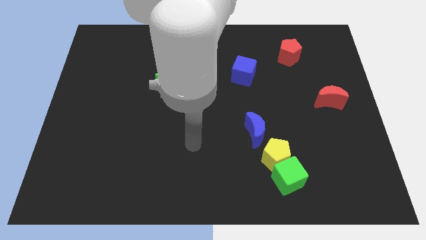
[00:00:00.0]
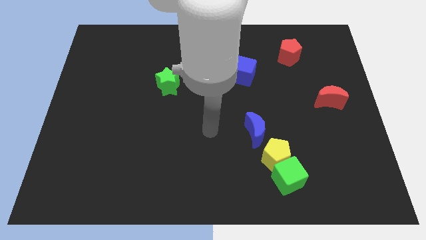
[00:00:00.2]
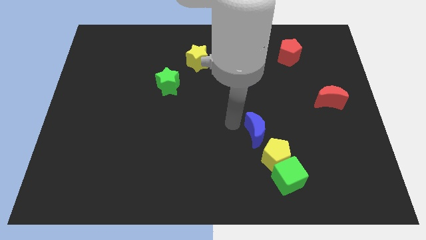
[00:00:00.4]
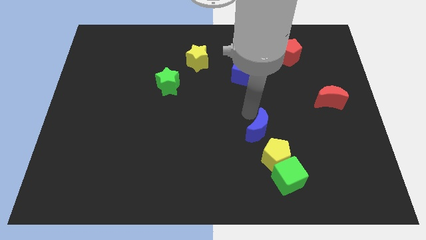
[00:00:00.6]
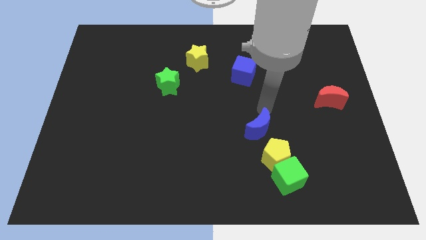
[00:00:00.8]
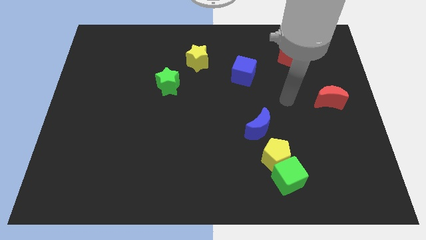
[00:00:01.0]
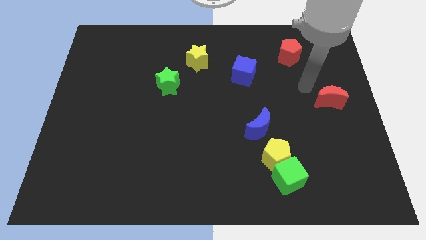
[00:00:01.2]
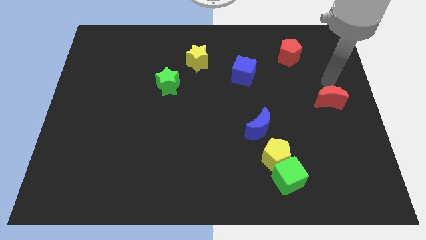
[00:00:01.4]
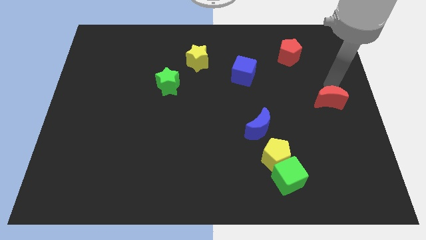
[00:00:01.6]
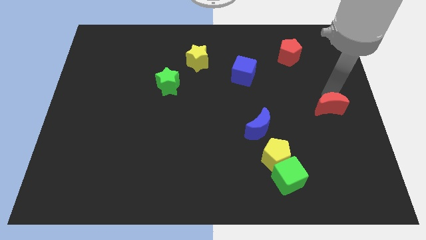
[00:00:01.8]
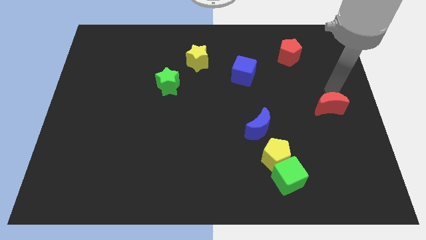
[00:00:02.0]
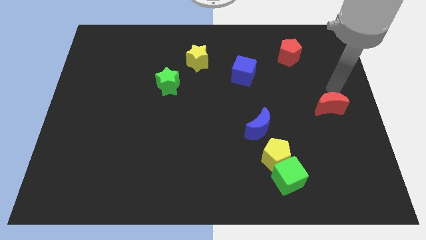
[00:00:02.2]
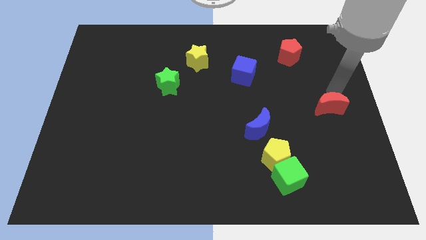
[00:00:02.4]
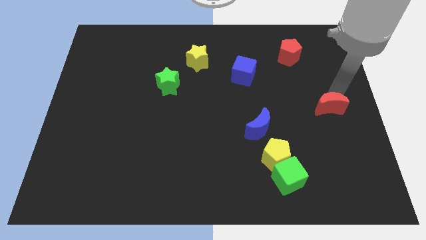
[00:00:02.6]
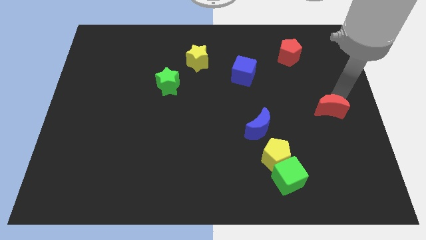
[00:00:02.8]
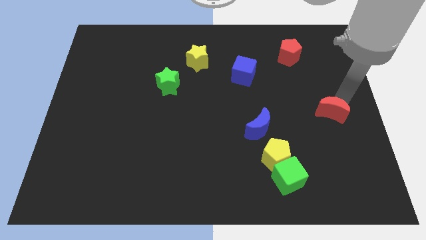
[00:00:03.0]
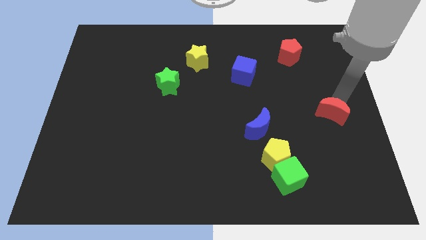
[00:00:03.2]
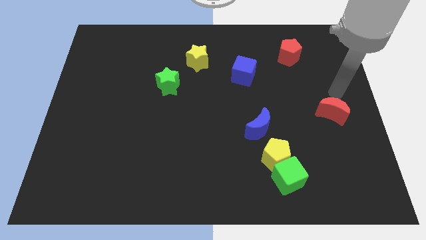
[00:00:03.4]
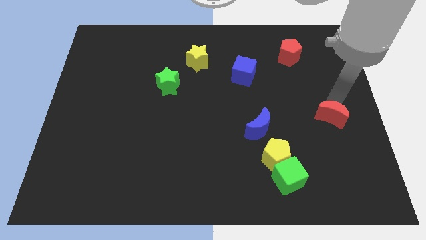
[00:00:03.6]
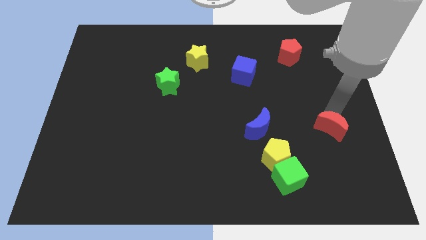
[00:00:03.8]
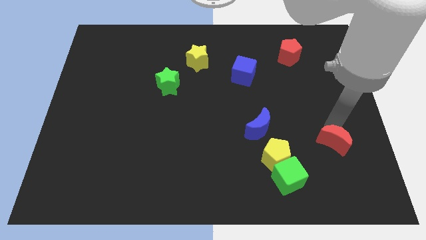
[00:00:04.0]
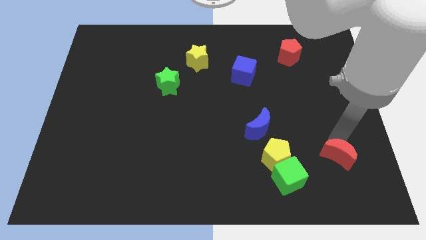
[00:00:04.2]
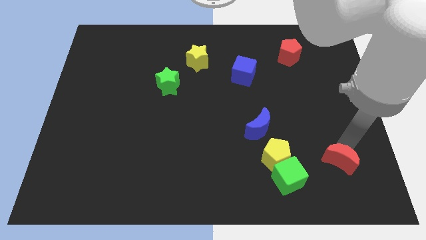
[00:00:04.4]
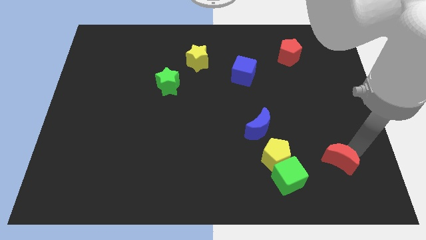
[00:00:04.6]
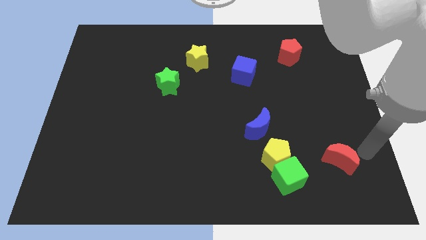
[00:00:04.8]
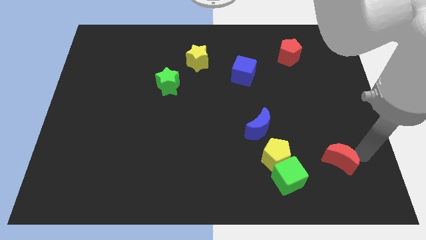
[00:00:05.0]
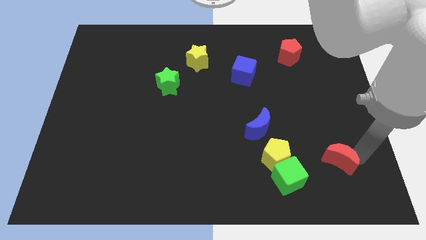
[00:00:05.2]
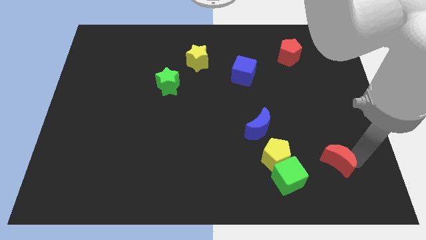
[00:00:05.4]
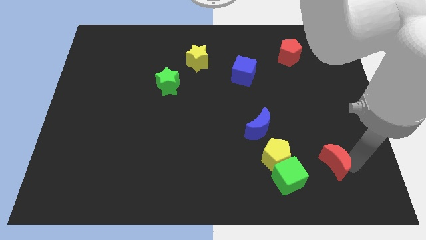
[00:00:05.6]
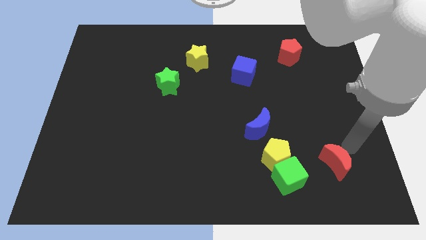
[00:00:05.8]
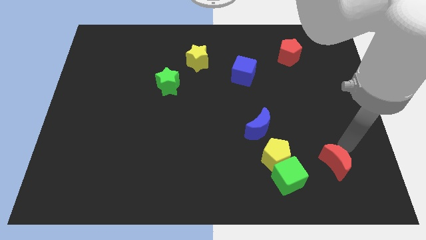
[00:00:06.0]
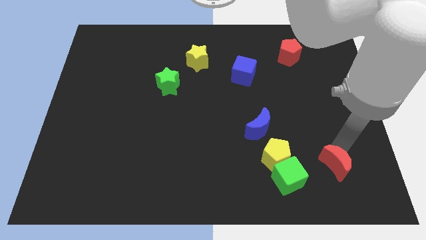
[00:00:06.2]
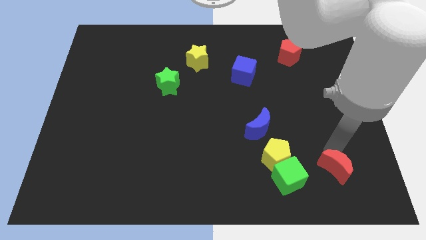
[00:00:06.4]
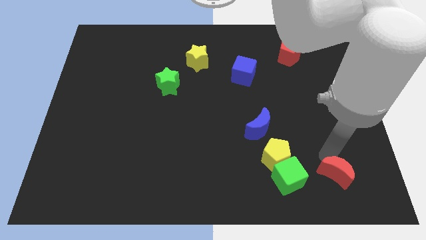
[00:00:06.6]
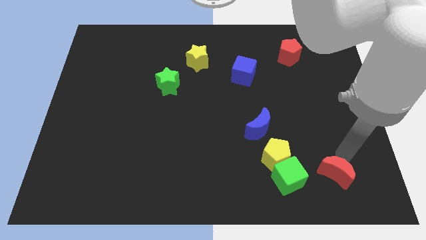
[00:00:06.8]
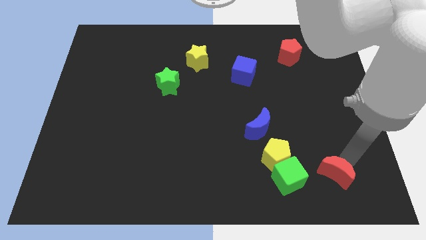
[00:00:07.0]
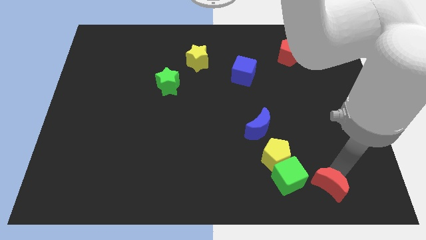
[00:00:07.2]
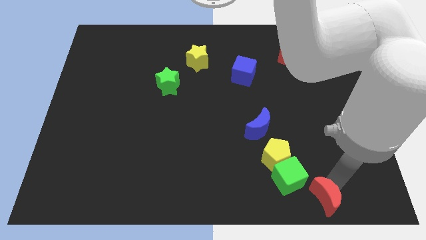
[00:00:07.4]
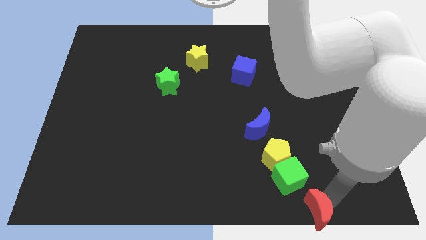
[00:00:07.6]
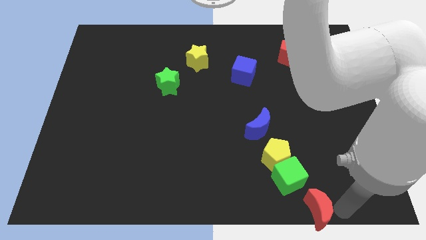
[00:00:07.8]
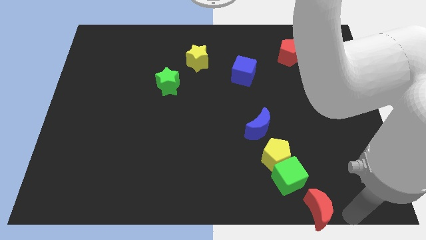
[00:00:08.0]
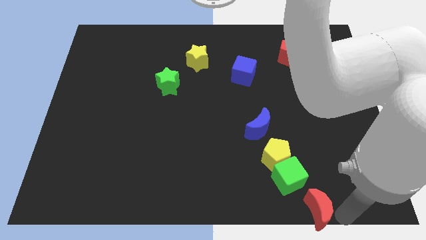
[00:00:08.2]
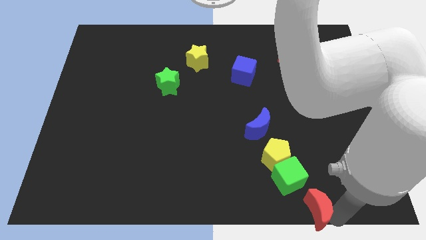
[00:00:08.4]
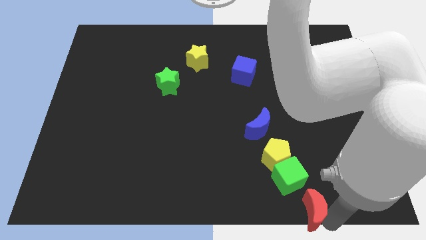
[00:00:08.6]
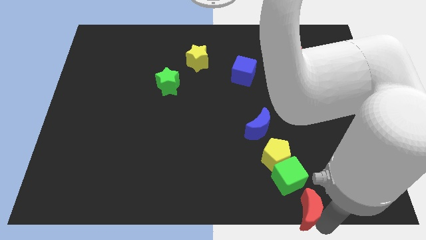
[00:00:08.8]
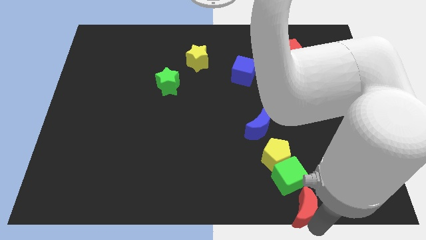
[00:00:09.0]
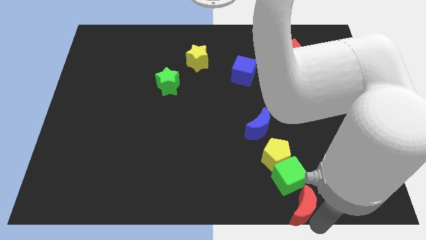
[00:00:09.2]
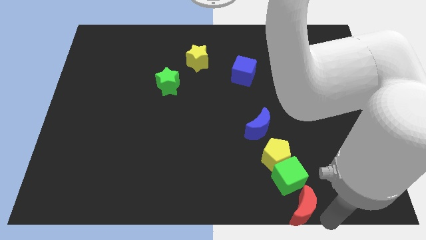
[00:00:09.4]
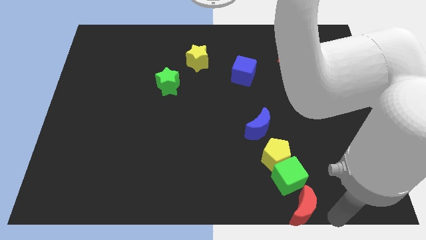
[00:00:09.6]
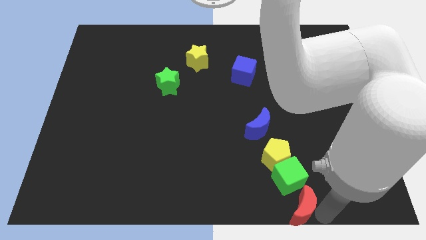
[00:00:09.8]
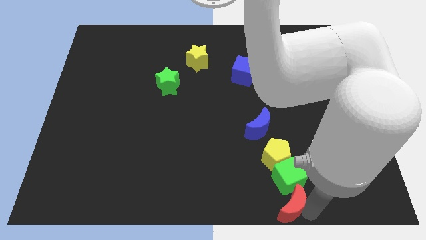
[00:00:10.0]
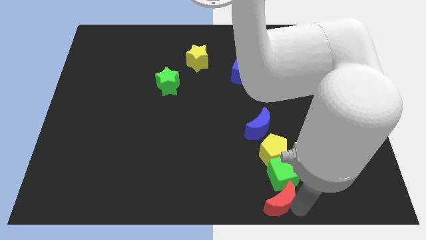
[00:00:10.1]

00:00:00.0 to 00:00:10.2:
move the red moon to the bottom side

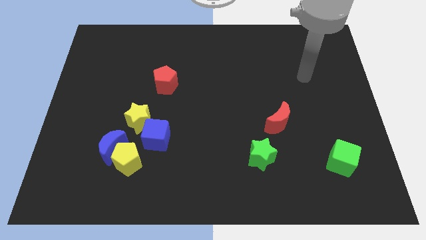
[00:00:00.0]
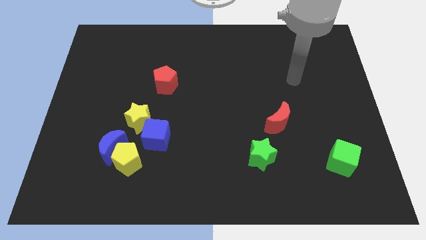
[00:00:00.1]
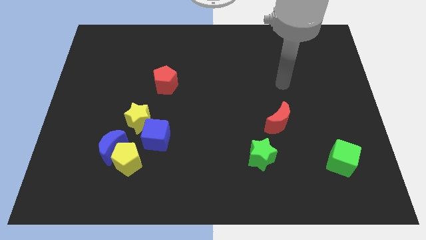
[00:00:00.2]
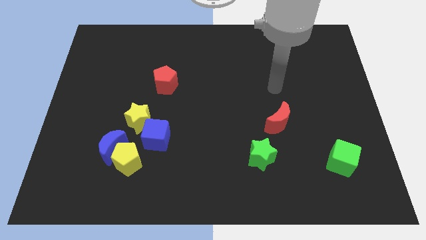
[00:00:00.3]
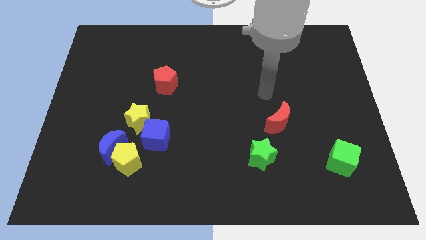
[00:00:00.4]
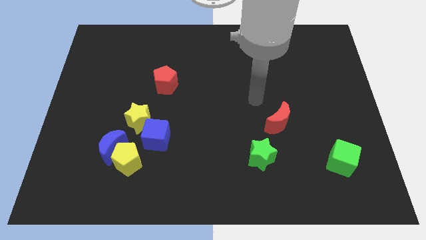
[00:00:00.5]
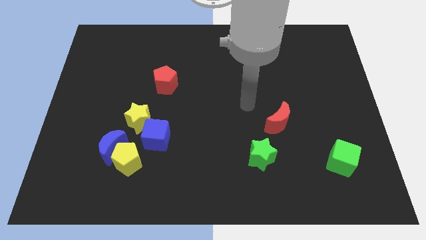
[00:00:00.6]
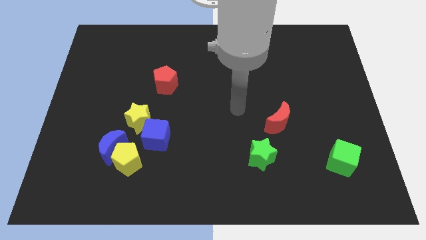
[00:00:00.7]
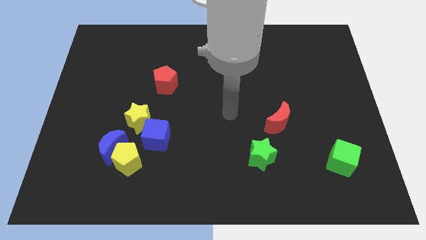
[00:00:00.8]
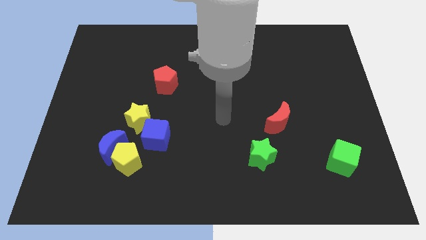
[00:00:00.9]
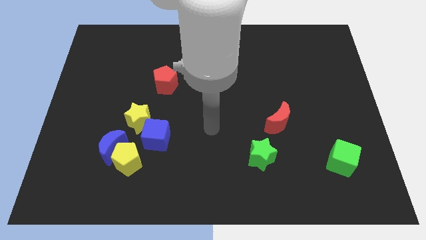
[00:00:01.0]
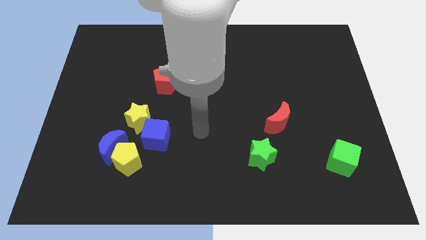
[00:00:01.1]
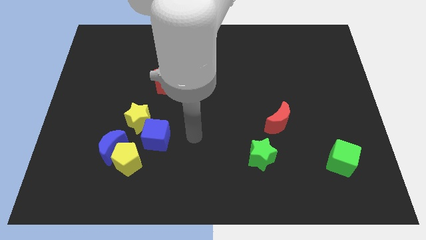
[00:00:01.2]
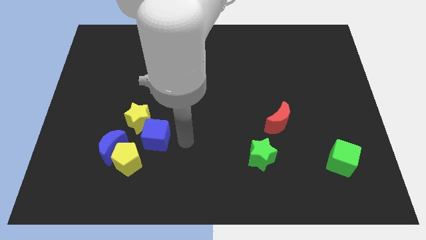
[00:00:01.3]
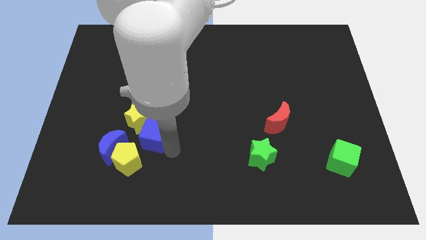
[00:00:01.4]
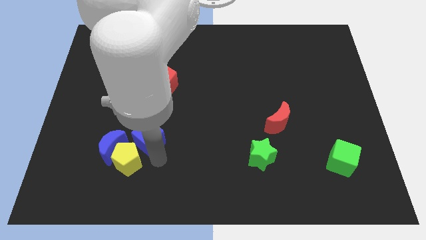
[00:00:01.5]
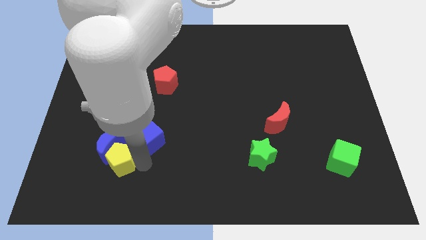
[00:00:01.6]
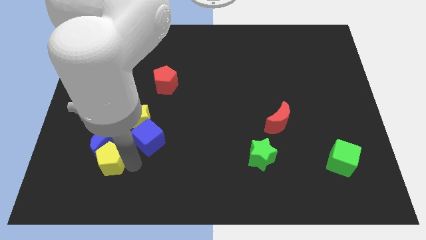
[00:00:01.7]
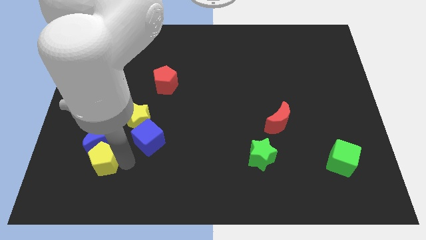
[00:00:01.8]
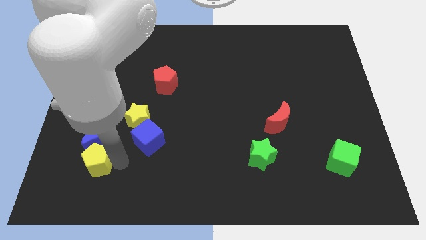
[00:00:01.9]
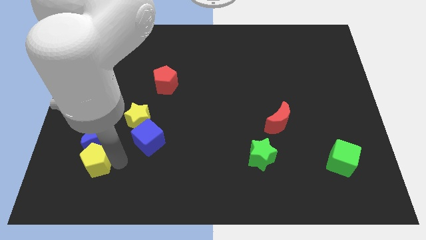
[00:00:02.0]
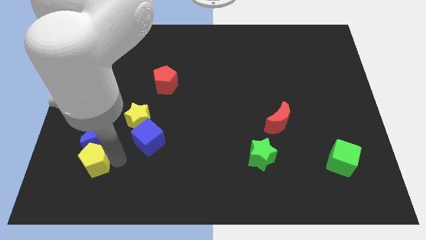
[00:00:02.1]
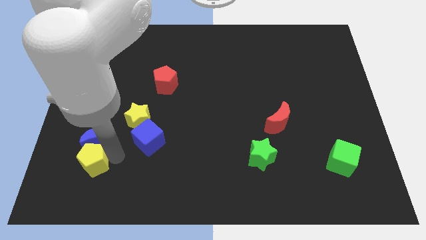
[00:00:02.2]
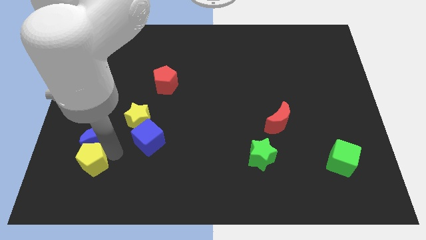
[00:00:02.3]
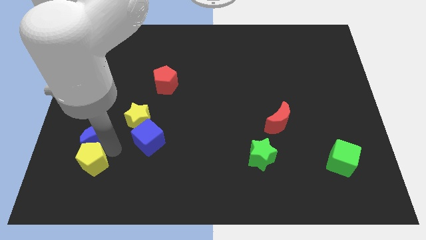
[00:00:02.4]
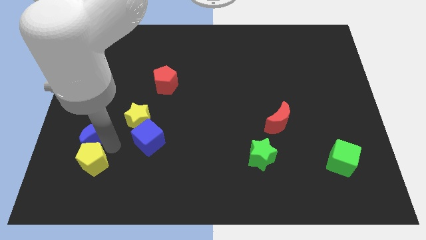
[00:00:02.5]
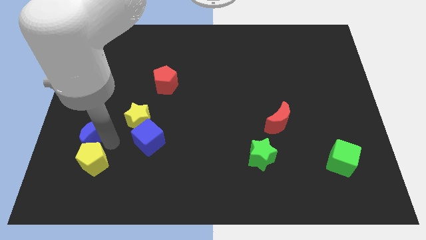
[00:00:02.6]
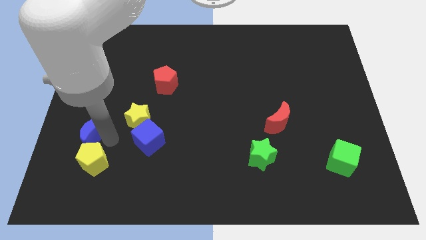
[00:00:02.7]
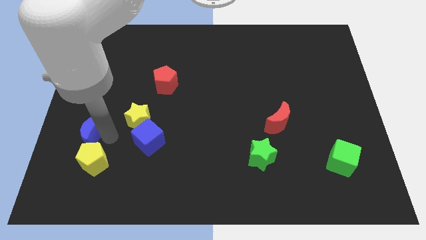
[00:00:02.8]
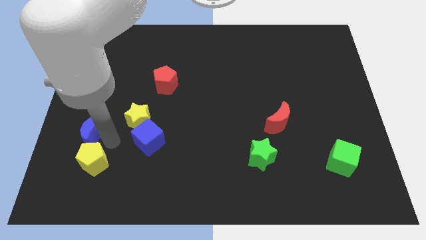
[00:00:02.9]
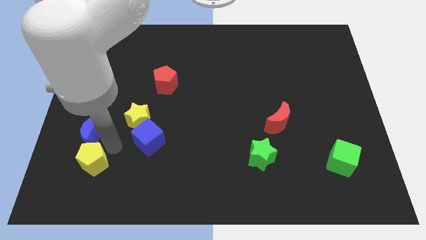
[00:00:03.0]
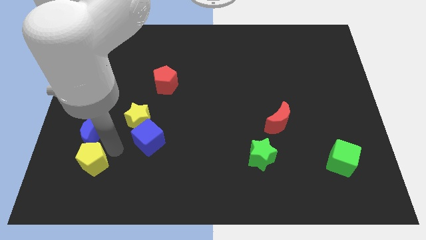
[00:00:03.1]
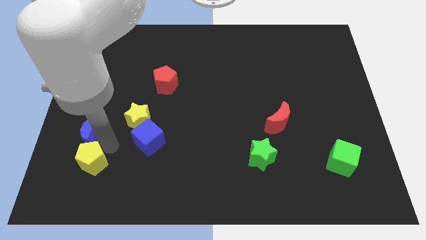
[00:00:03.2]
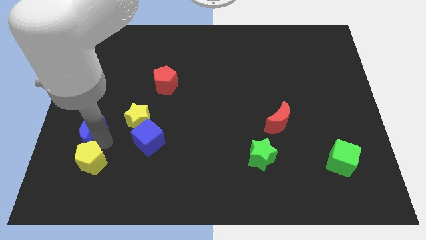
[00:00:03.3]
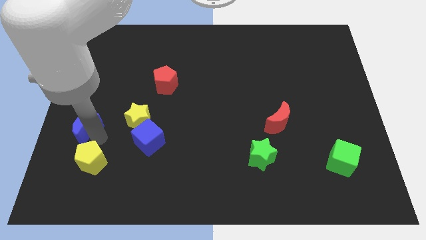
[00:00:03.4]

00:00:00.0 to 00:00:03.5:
slide the blue moon to the left side
